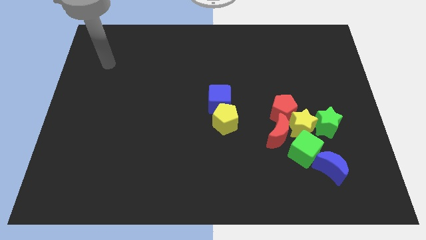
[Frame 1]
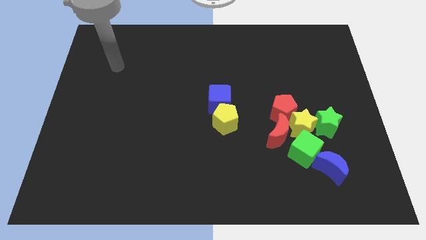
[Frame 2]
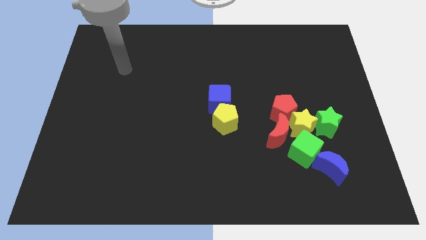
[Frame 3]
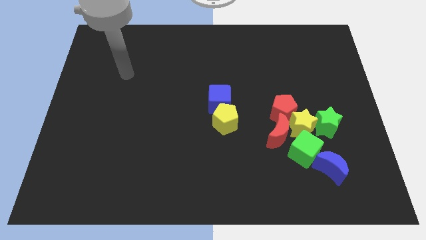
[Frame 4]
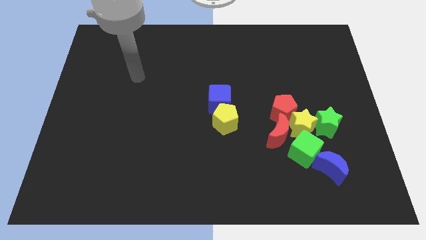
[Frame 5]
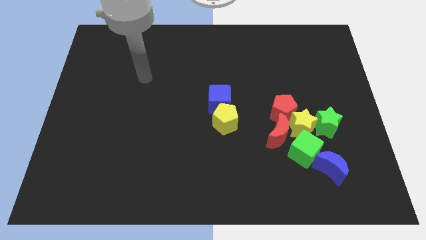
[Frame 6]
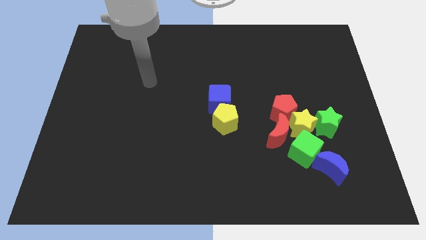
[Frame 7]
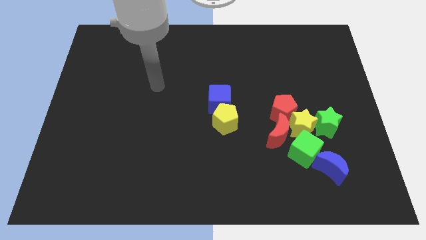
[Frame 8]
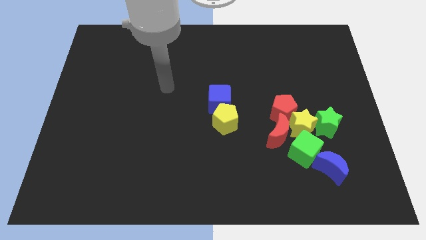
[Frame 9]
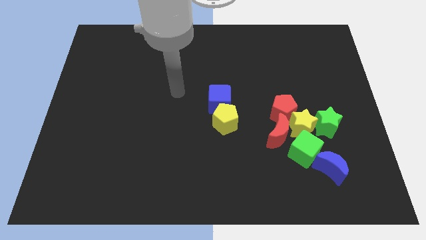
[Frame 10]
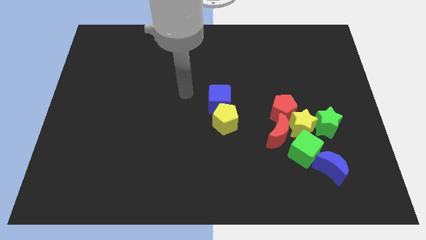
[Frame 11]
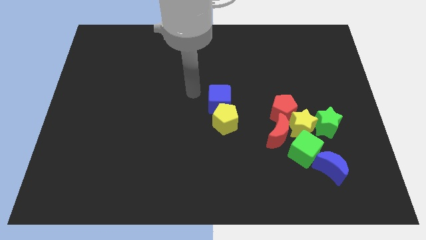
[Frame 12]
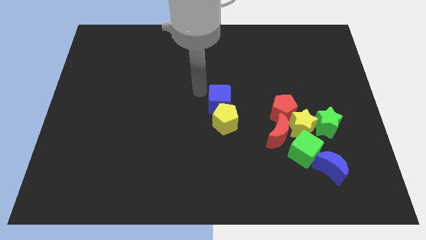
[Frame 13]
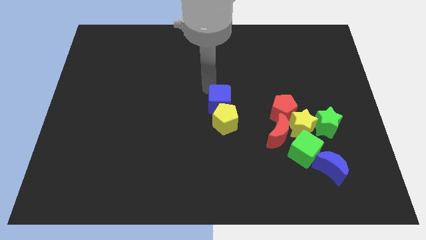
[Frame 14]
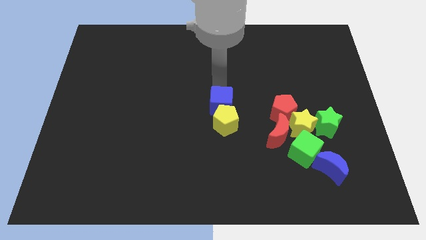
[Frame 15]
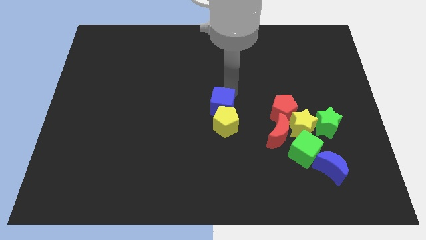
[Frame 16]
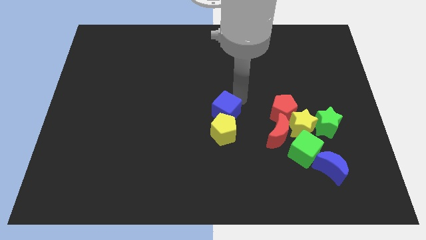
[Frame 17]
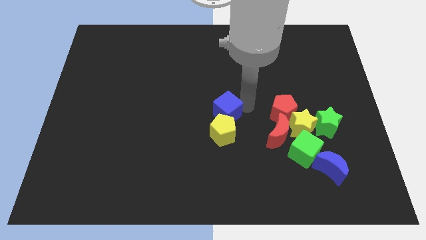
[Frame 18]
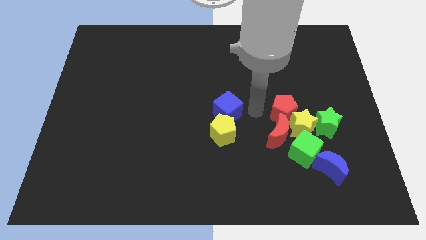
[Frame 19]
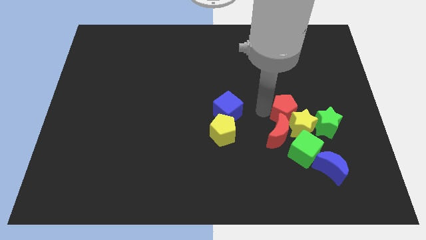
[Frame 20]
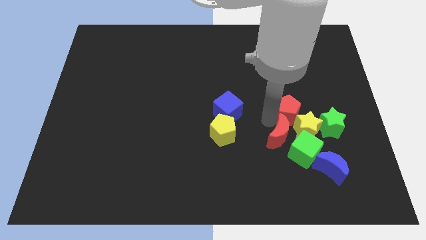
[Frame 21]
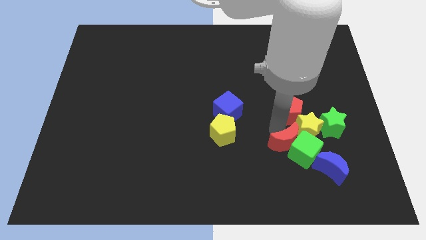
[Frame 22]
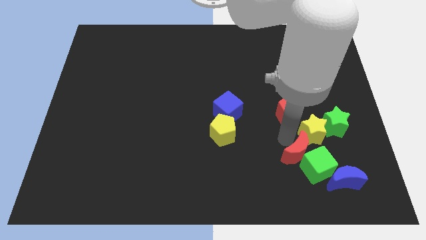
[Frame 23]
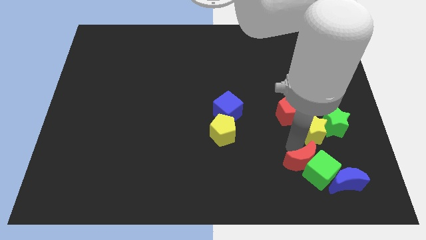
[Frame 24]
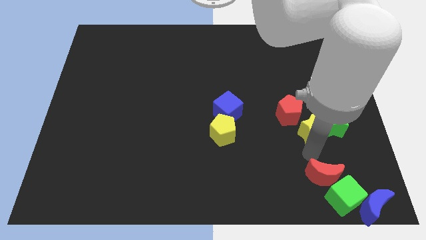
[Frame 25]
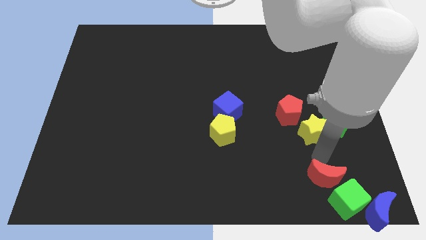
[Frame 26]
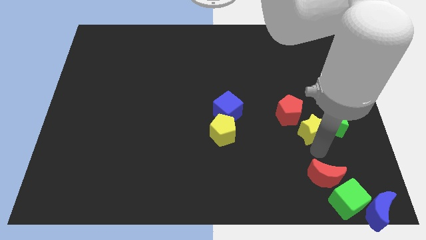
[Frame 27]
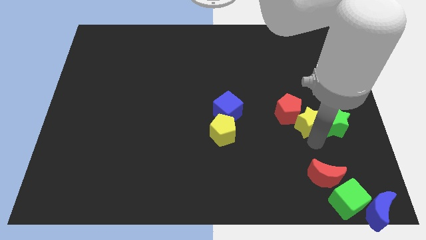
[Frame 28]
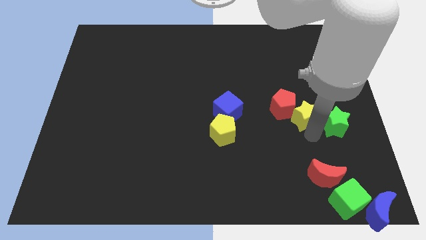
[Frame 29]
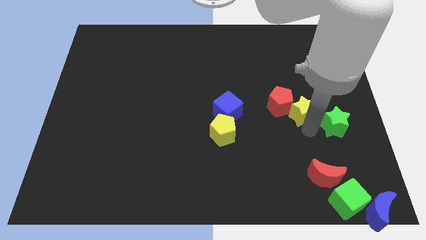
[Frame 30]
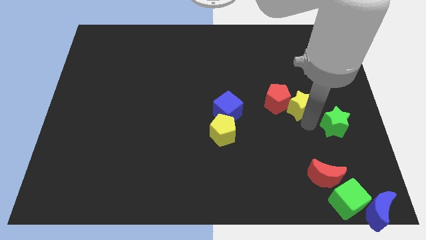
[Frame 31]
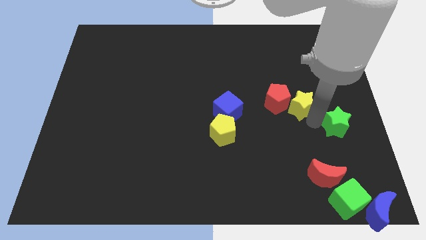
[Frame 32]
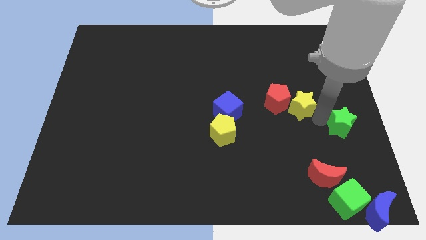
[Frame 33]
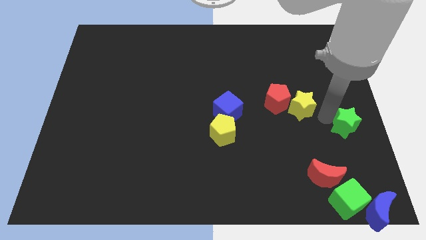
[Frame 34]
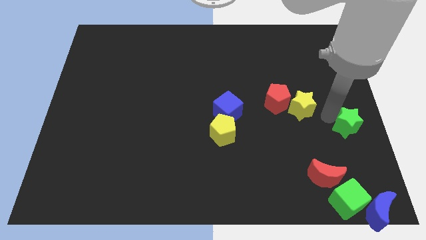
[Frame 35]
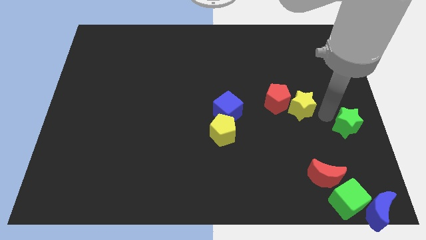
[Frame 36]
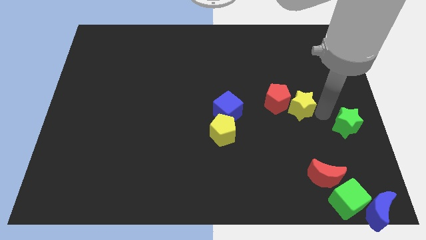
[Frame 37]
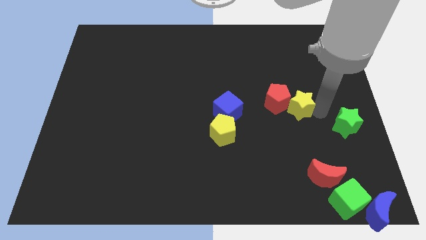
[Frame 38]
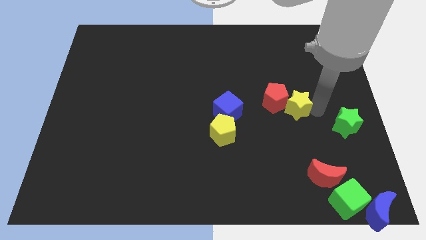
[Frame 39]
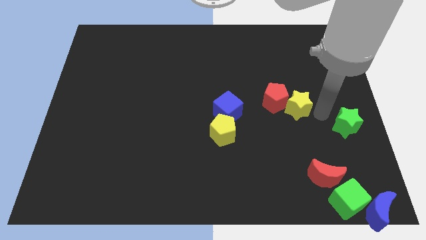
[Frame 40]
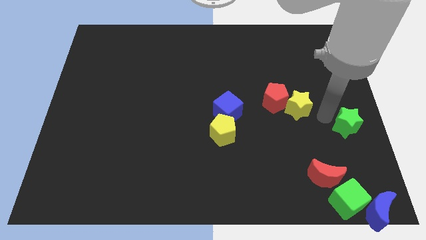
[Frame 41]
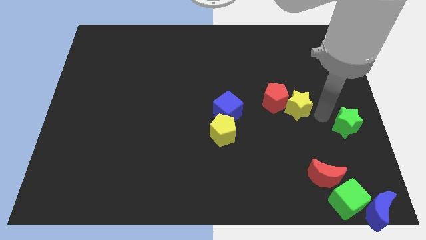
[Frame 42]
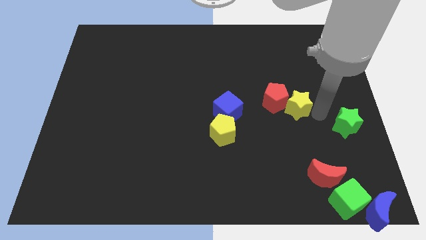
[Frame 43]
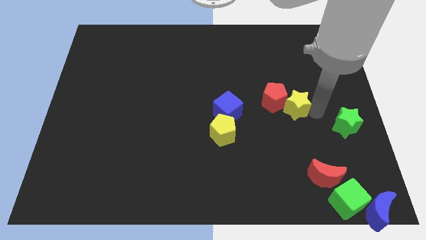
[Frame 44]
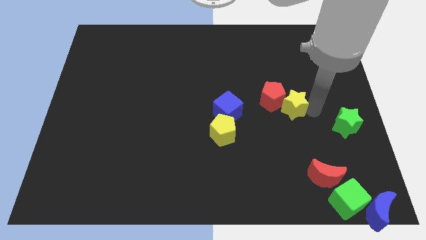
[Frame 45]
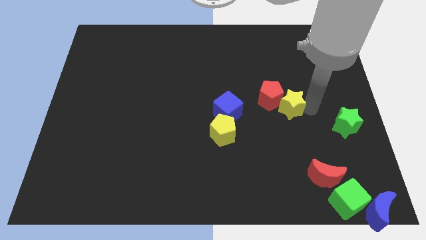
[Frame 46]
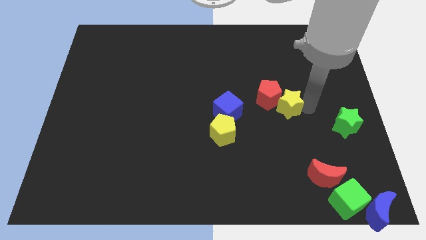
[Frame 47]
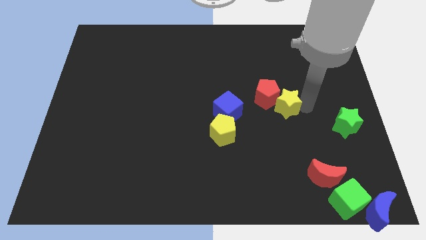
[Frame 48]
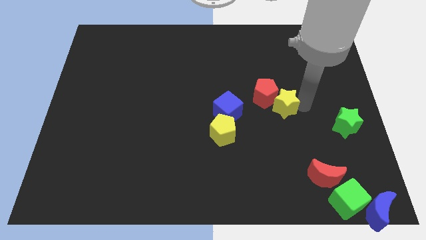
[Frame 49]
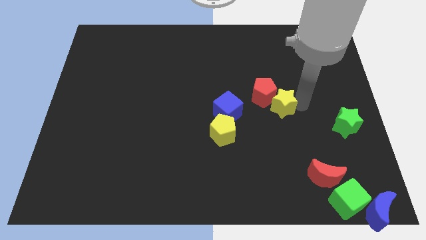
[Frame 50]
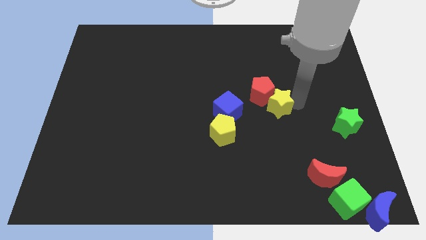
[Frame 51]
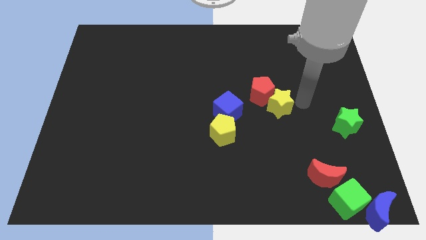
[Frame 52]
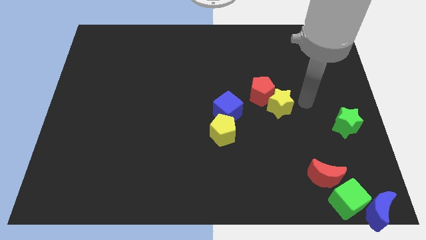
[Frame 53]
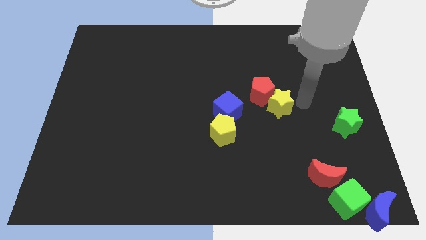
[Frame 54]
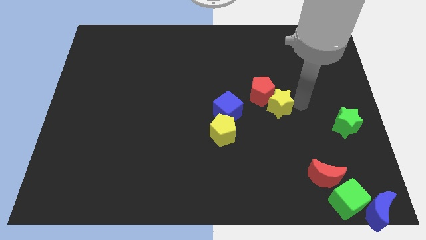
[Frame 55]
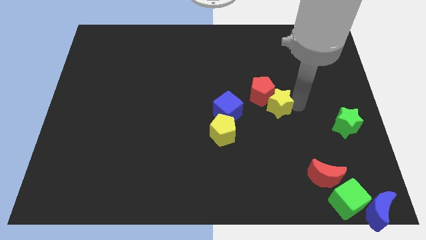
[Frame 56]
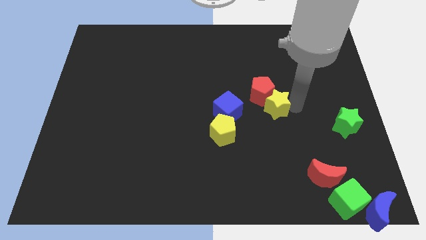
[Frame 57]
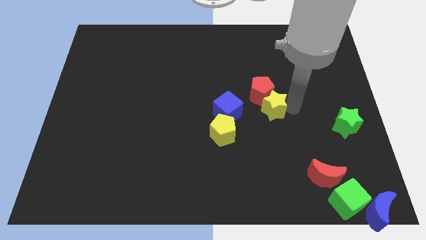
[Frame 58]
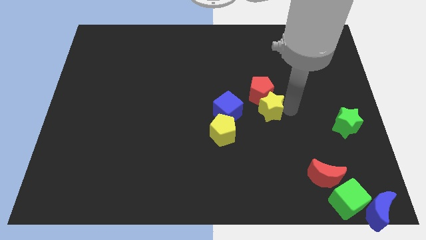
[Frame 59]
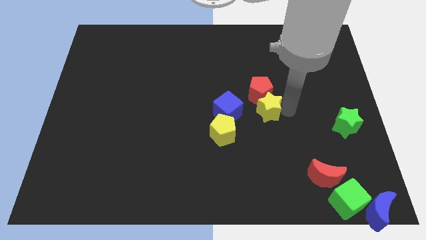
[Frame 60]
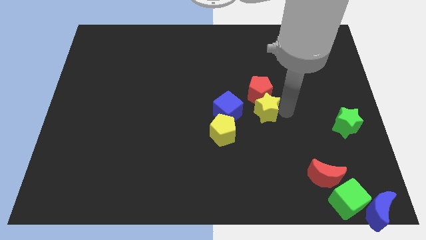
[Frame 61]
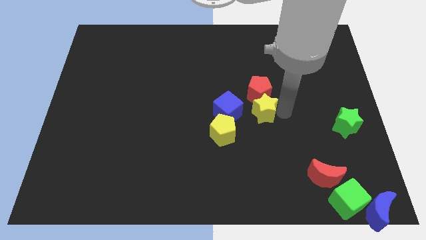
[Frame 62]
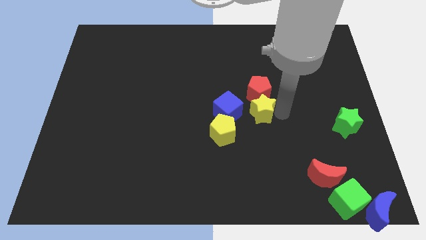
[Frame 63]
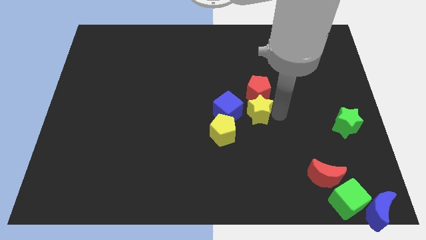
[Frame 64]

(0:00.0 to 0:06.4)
push the yellow star to the bottom right of the blue cube

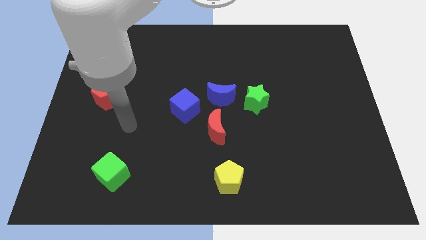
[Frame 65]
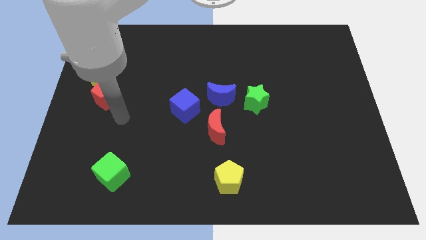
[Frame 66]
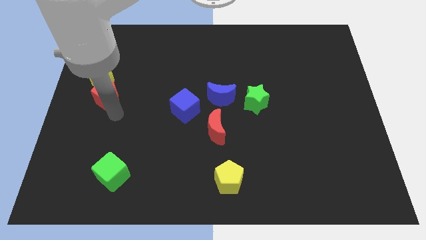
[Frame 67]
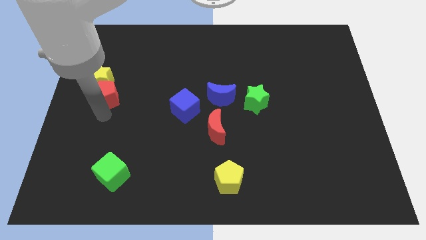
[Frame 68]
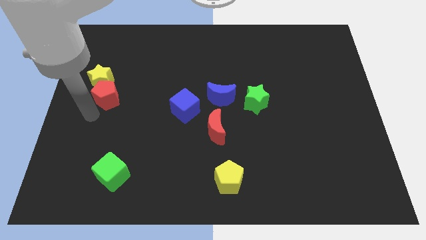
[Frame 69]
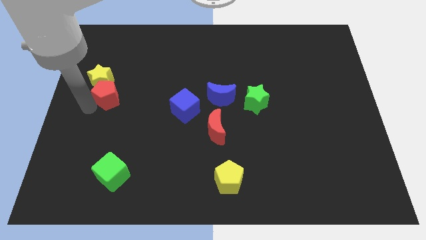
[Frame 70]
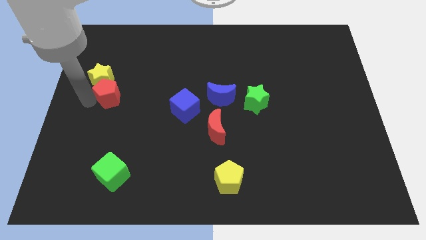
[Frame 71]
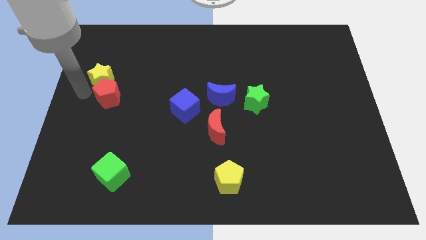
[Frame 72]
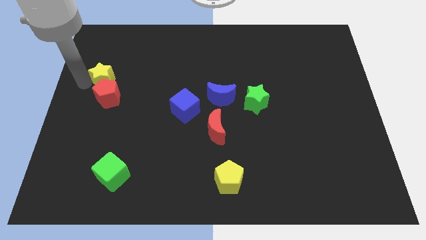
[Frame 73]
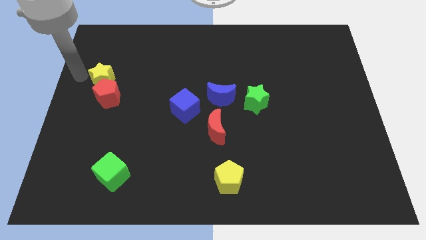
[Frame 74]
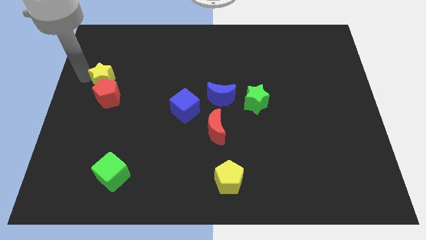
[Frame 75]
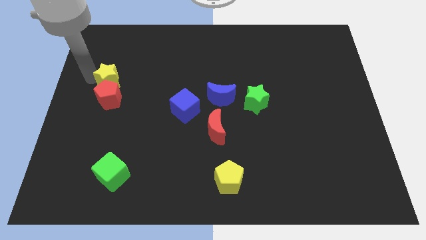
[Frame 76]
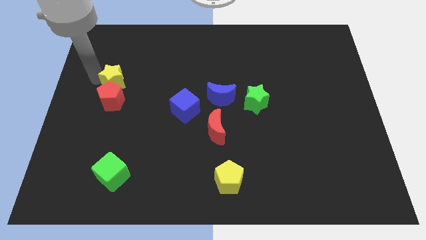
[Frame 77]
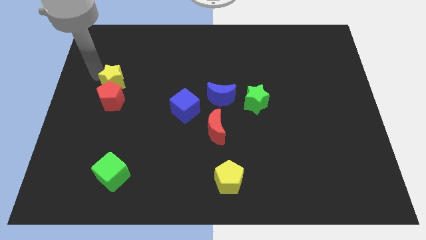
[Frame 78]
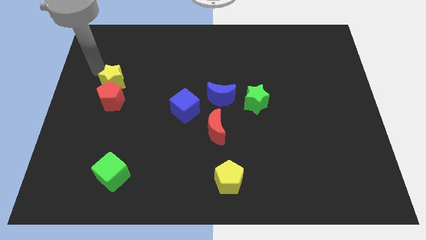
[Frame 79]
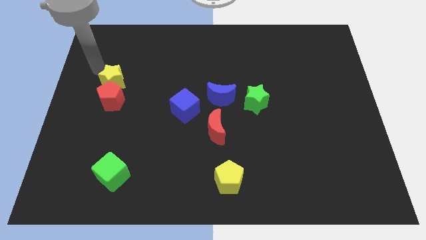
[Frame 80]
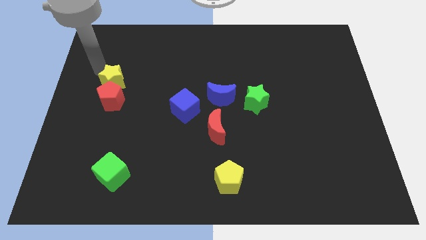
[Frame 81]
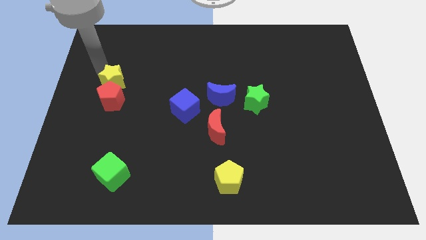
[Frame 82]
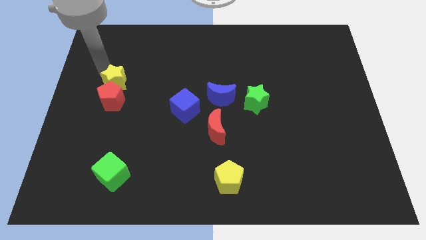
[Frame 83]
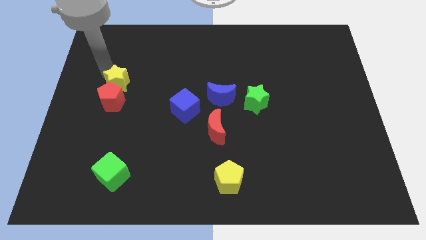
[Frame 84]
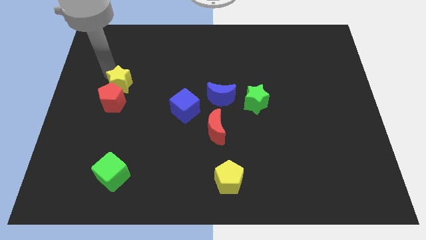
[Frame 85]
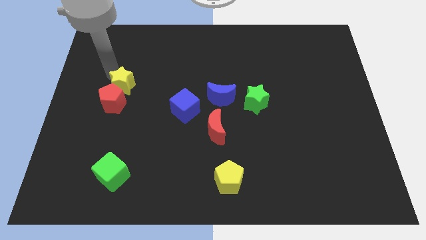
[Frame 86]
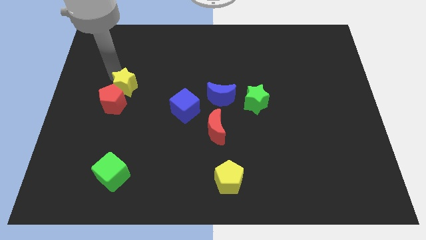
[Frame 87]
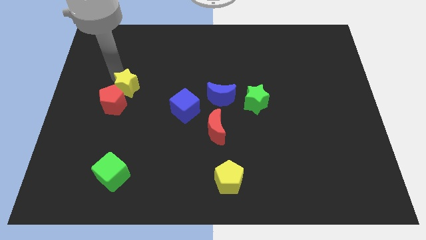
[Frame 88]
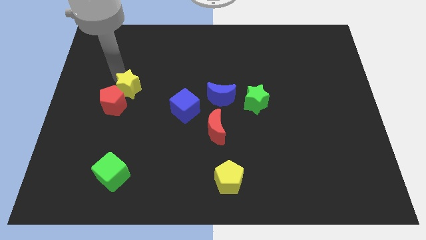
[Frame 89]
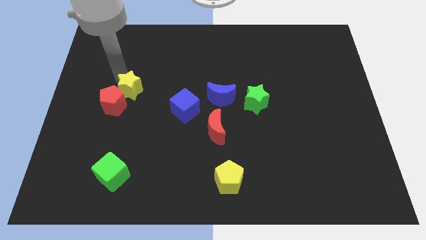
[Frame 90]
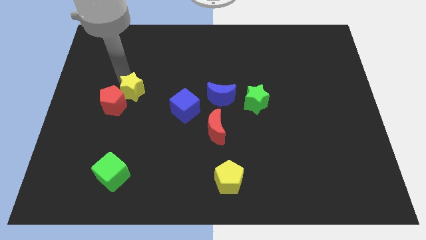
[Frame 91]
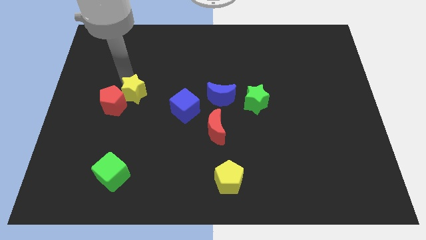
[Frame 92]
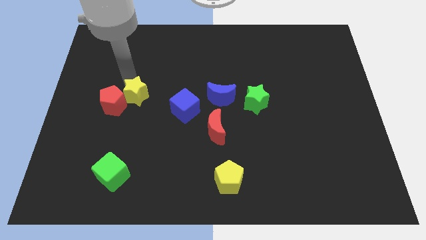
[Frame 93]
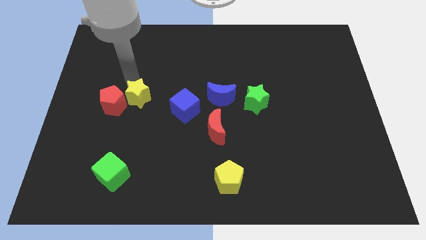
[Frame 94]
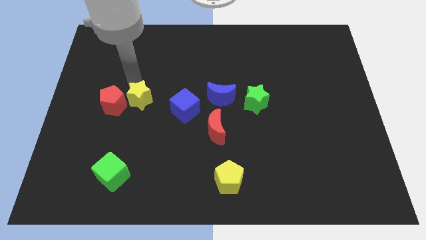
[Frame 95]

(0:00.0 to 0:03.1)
slide the yellow star diagonally down and to the right of the red pentagon
